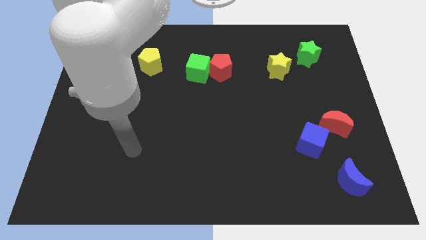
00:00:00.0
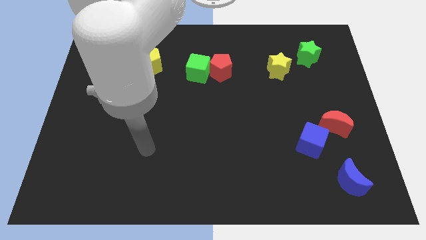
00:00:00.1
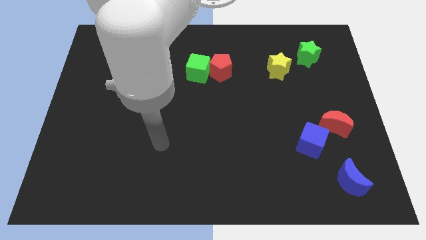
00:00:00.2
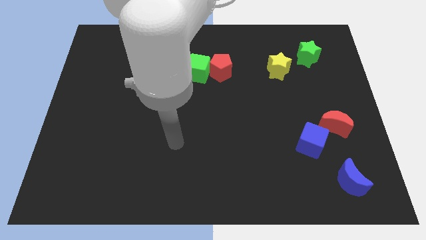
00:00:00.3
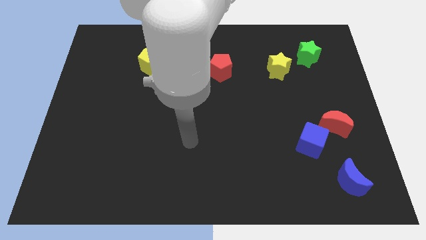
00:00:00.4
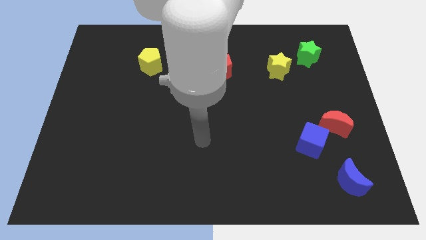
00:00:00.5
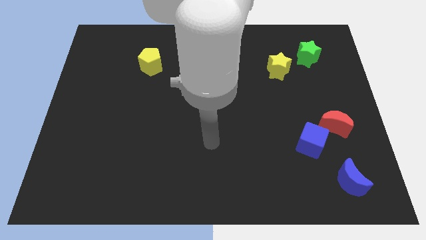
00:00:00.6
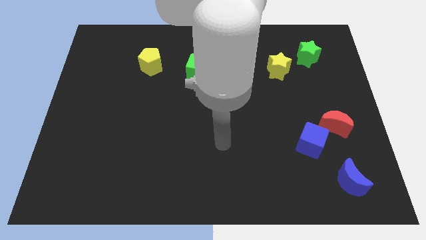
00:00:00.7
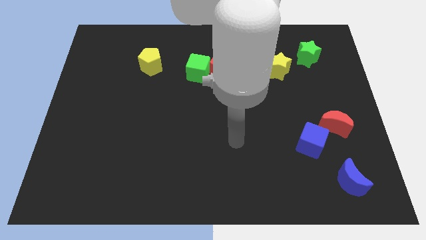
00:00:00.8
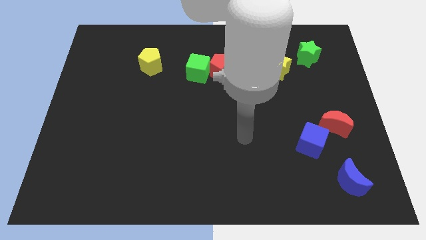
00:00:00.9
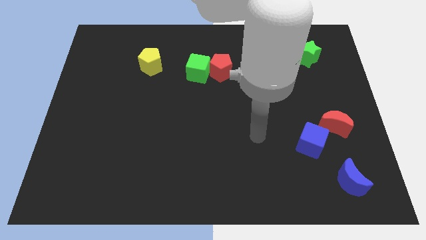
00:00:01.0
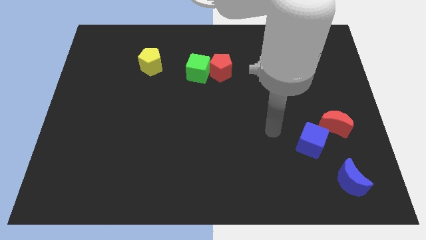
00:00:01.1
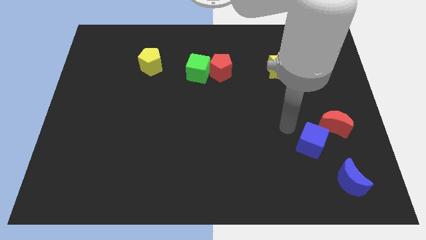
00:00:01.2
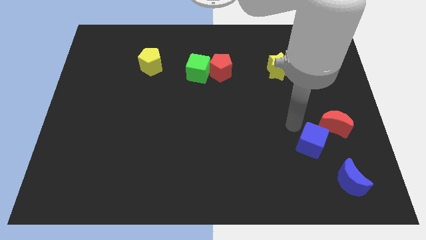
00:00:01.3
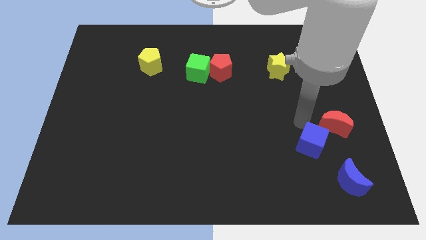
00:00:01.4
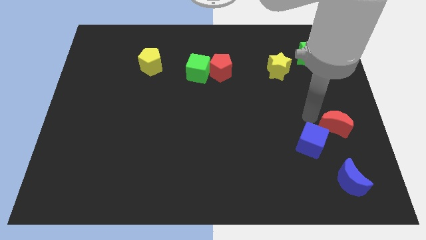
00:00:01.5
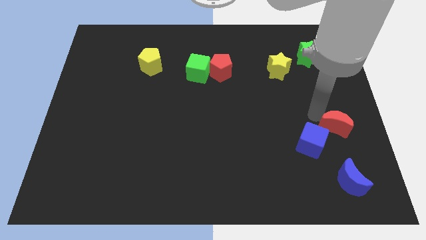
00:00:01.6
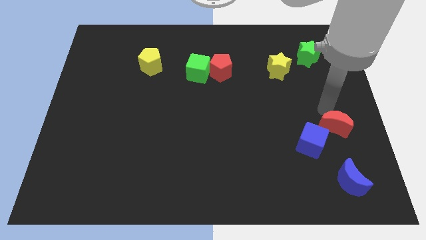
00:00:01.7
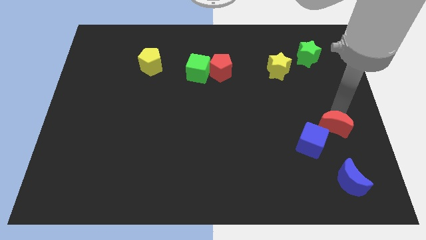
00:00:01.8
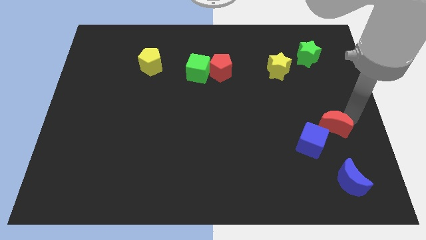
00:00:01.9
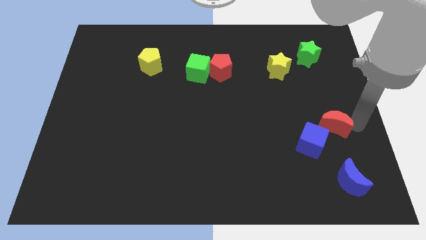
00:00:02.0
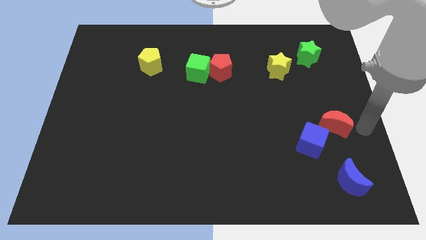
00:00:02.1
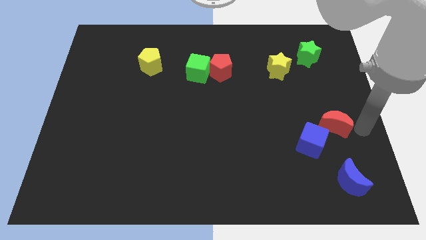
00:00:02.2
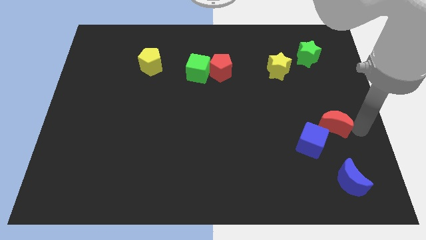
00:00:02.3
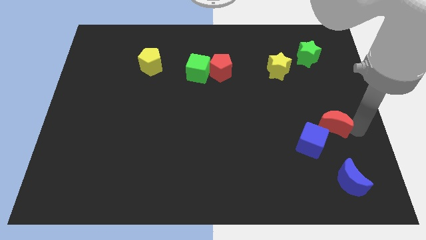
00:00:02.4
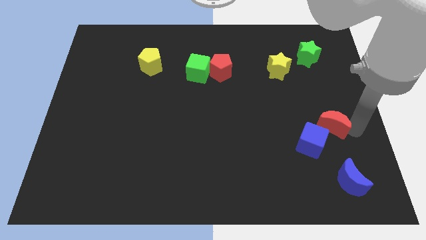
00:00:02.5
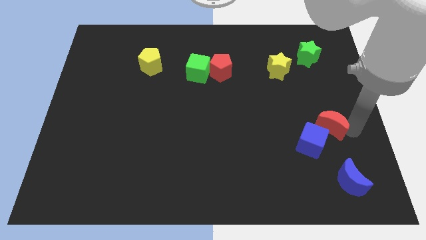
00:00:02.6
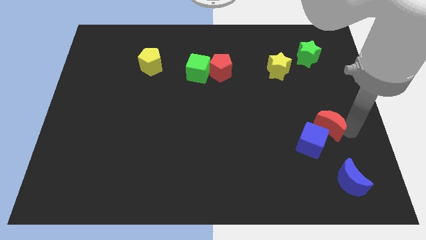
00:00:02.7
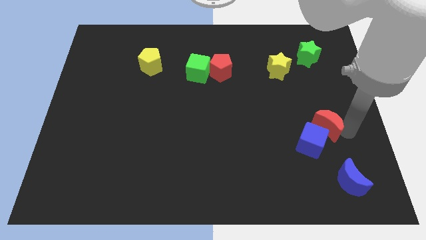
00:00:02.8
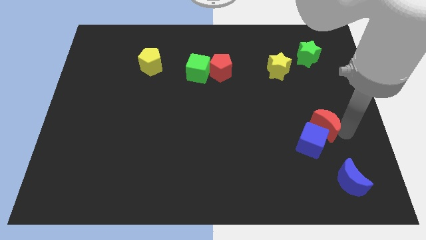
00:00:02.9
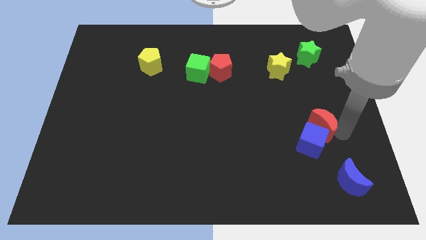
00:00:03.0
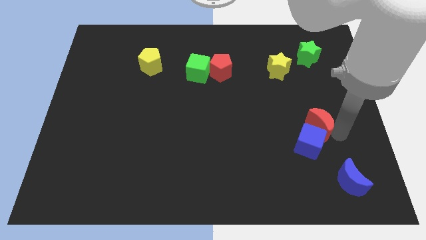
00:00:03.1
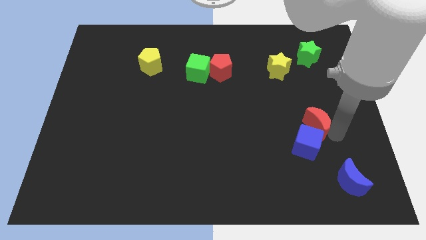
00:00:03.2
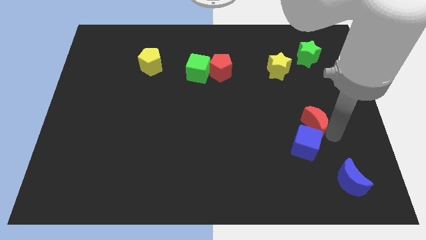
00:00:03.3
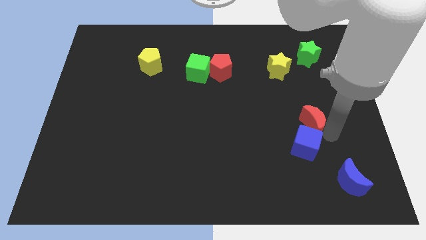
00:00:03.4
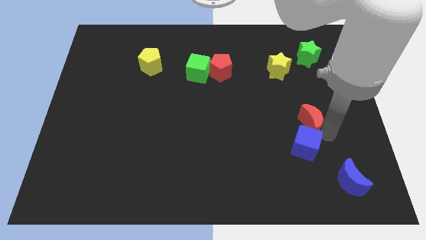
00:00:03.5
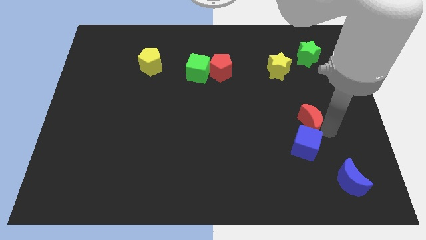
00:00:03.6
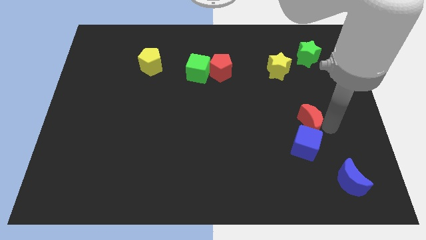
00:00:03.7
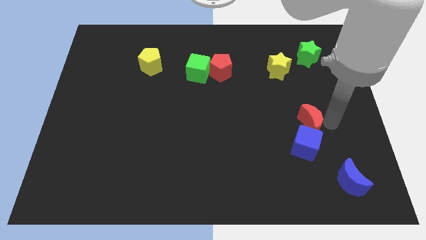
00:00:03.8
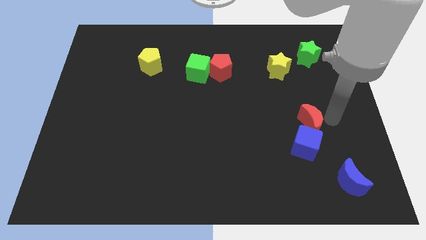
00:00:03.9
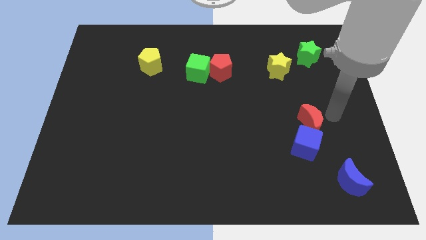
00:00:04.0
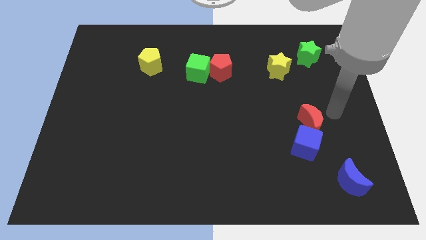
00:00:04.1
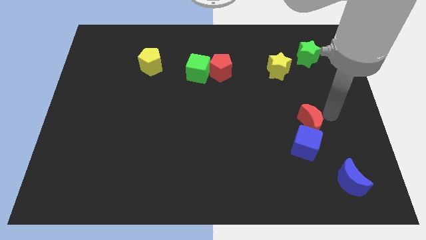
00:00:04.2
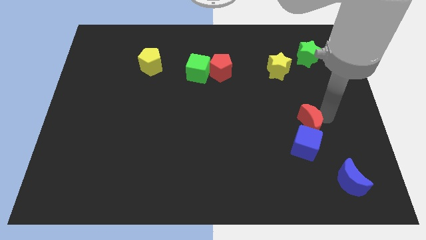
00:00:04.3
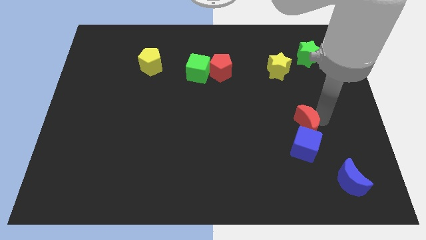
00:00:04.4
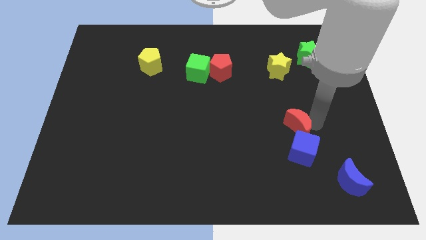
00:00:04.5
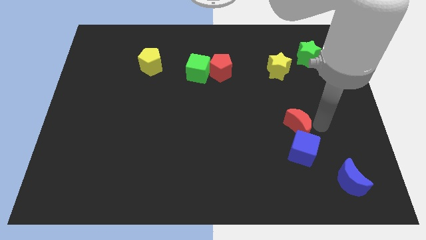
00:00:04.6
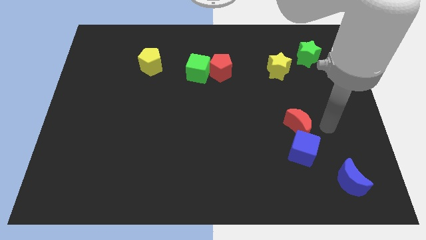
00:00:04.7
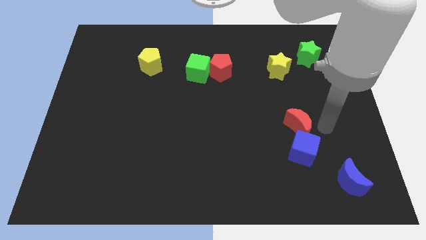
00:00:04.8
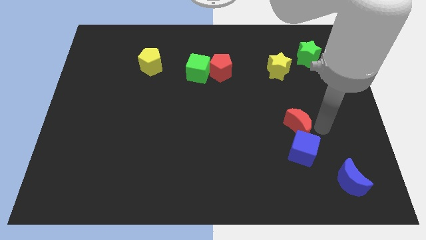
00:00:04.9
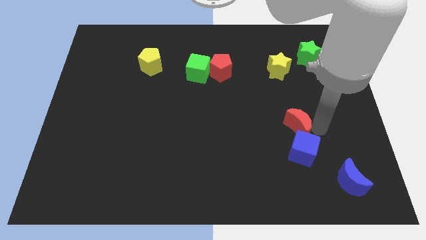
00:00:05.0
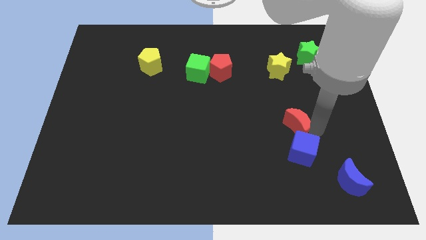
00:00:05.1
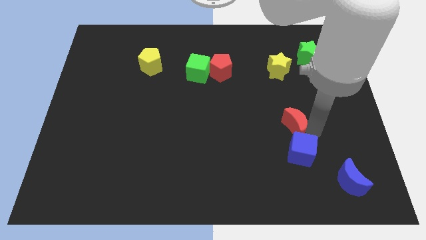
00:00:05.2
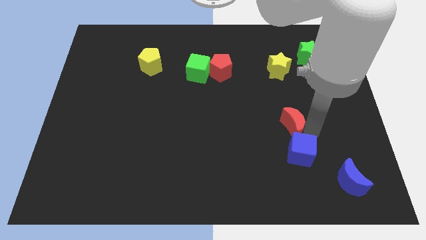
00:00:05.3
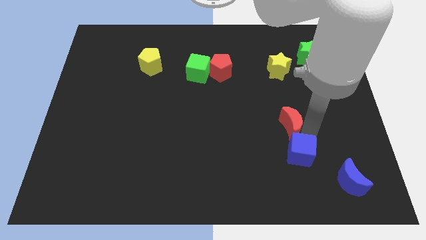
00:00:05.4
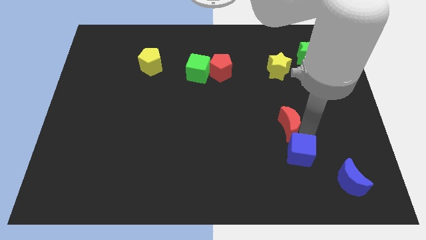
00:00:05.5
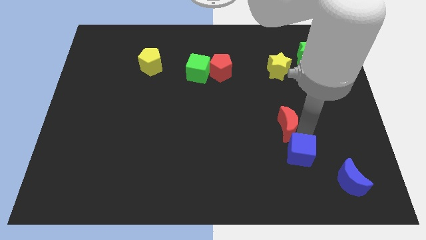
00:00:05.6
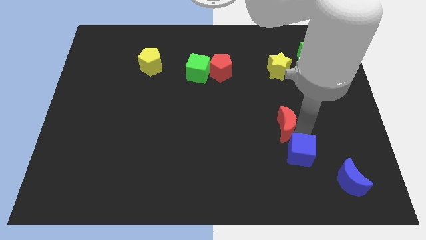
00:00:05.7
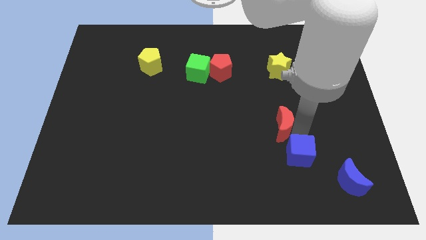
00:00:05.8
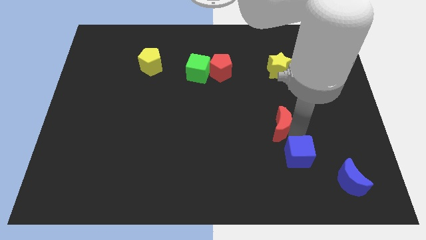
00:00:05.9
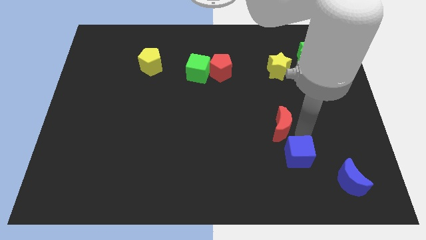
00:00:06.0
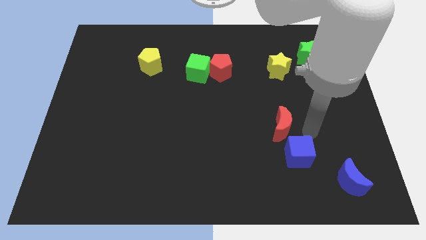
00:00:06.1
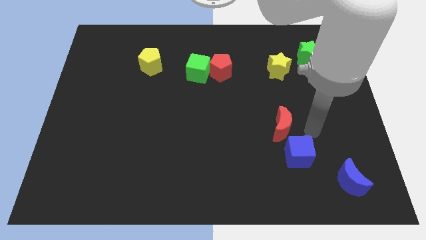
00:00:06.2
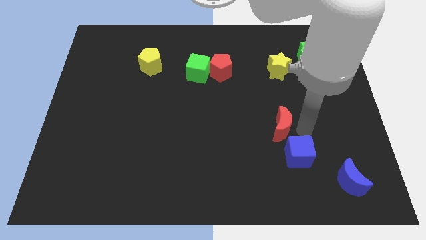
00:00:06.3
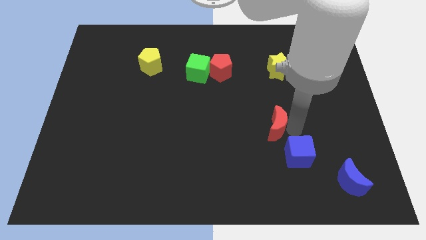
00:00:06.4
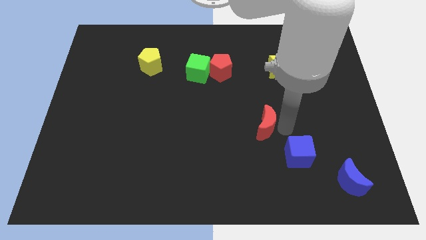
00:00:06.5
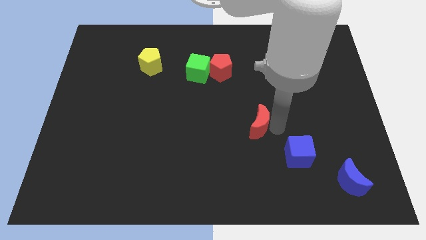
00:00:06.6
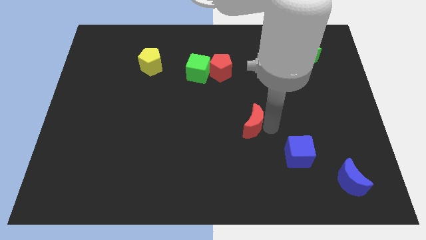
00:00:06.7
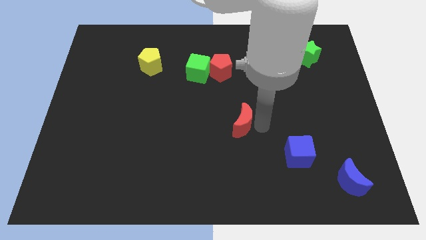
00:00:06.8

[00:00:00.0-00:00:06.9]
slide the red moon to the left

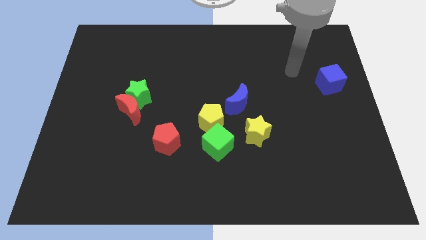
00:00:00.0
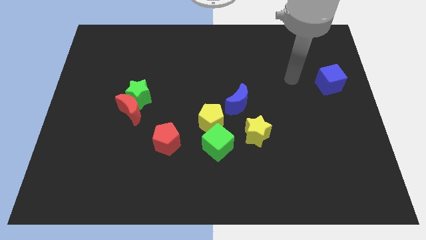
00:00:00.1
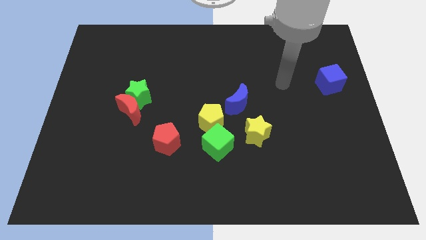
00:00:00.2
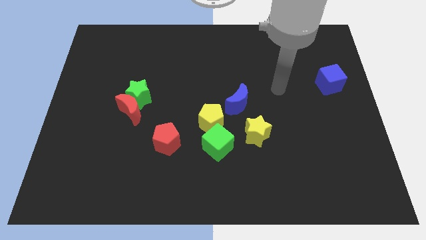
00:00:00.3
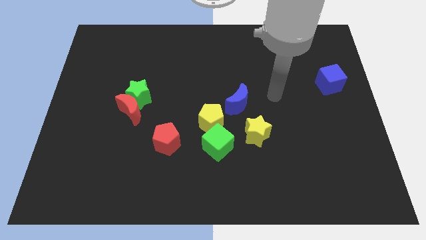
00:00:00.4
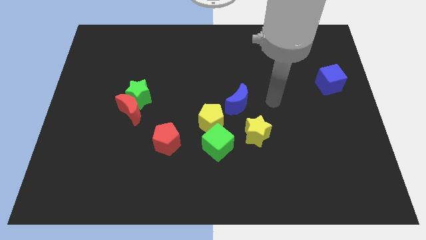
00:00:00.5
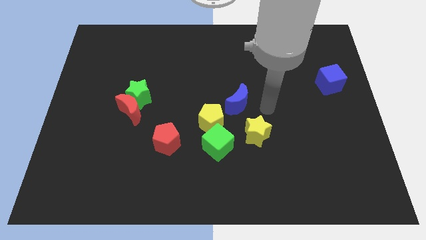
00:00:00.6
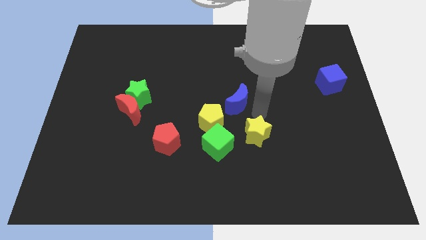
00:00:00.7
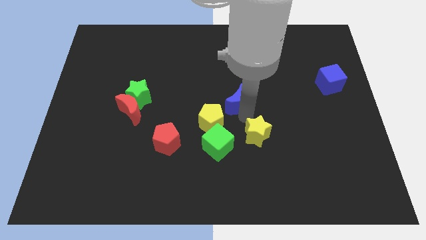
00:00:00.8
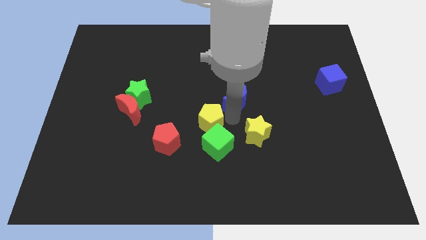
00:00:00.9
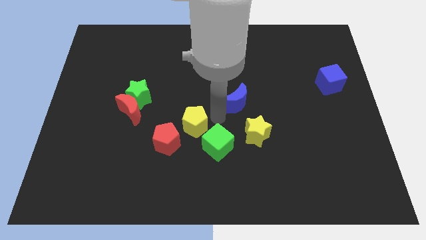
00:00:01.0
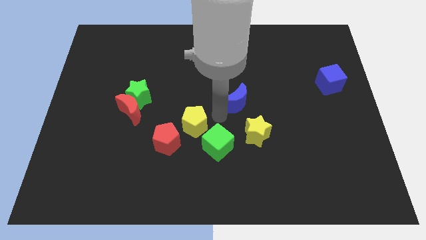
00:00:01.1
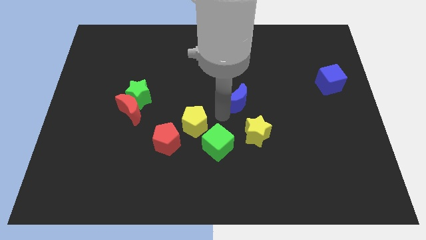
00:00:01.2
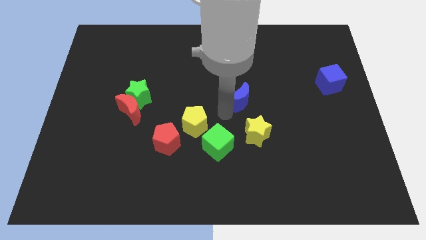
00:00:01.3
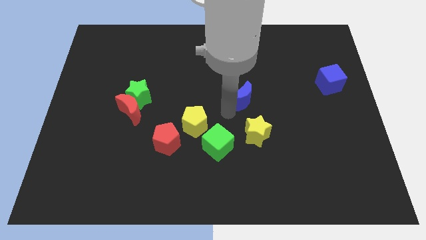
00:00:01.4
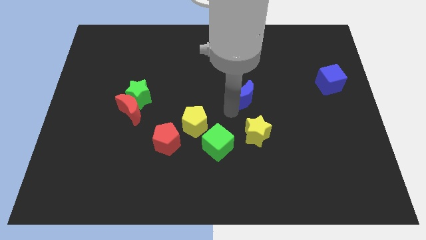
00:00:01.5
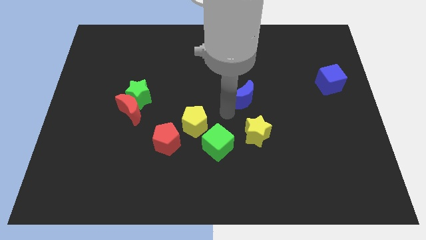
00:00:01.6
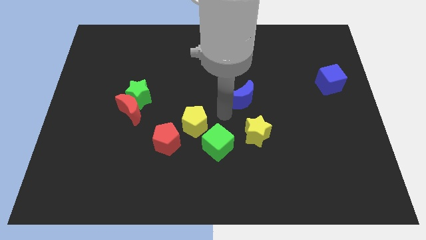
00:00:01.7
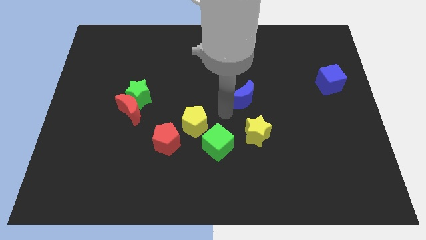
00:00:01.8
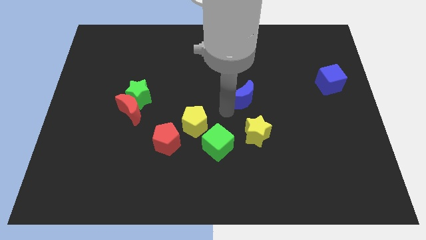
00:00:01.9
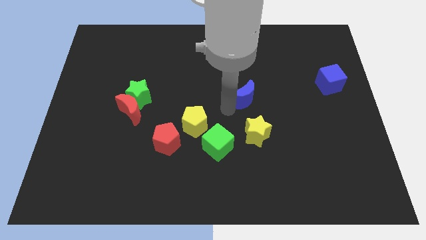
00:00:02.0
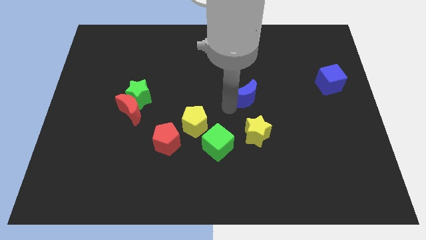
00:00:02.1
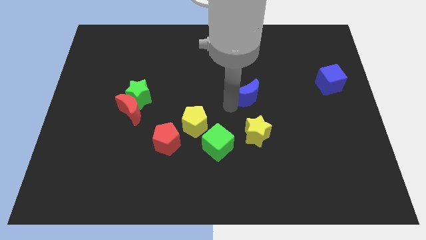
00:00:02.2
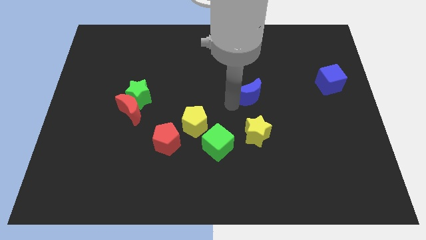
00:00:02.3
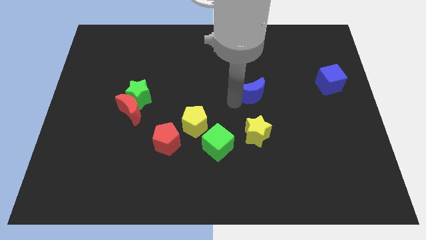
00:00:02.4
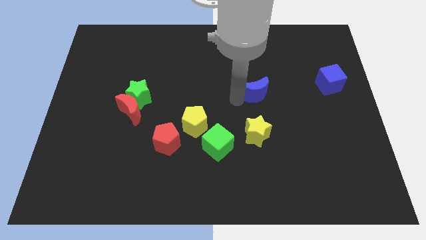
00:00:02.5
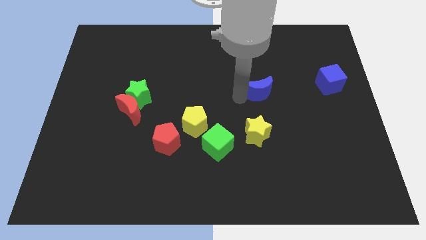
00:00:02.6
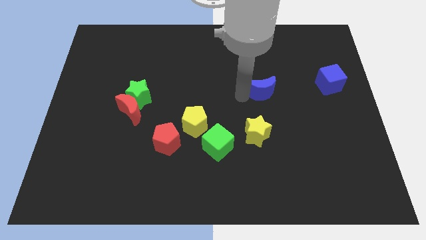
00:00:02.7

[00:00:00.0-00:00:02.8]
slide the blue moon a little bit upwards and to the right
